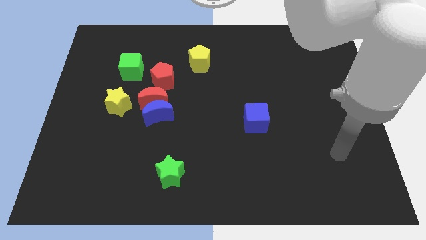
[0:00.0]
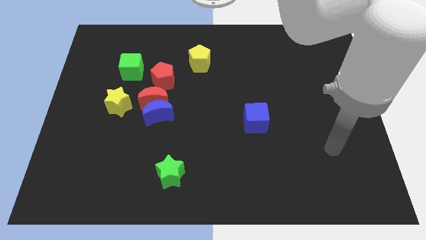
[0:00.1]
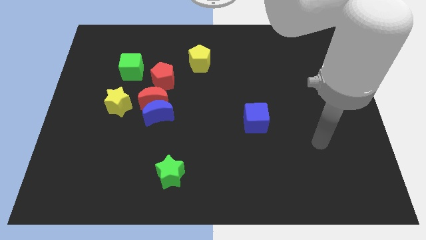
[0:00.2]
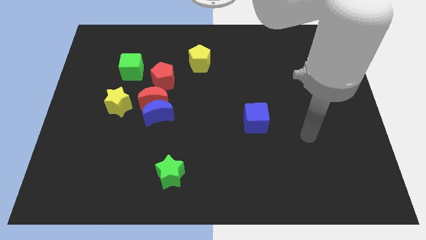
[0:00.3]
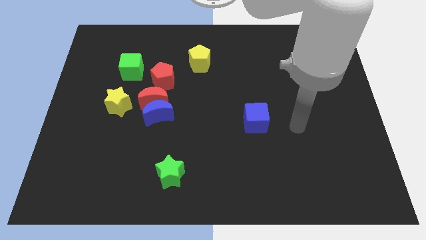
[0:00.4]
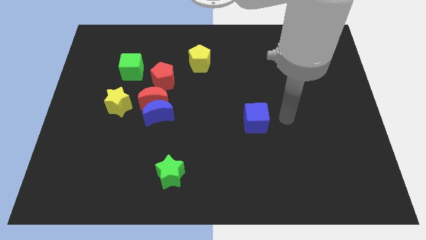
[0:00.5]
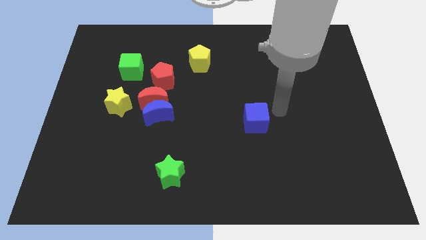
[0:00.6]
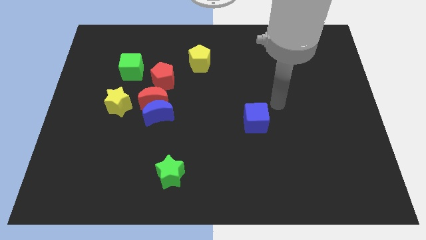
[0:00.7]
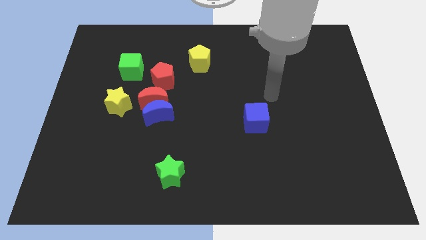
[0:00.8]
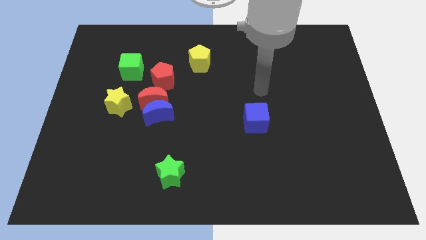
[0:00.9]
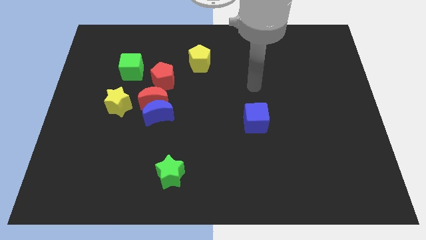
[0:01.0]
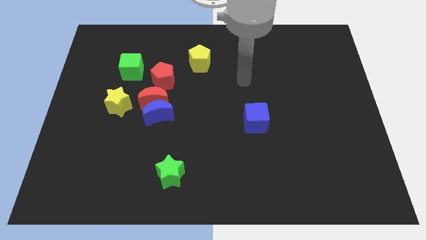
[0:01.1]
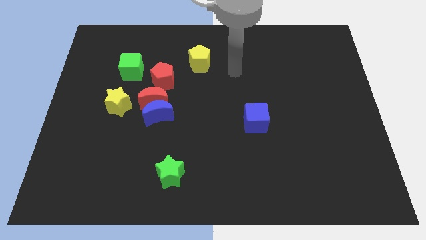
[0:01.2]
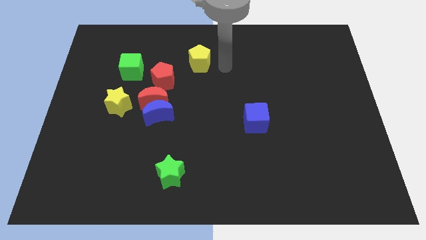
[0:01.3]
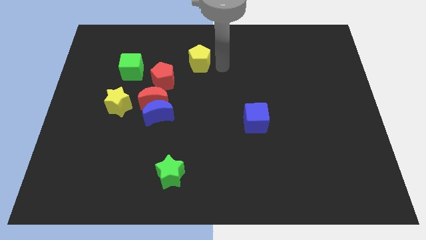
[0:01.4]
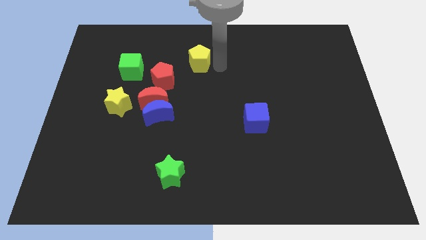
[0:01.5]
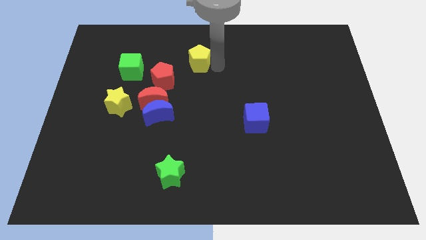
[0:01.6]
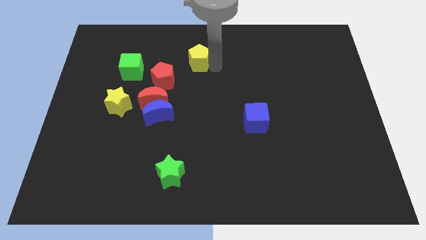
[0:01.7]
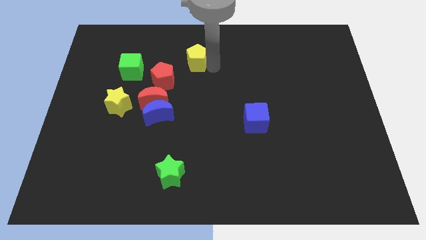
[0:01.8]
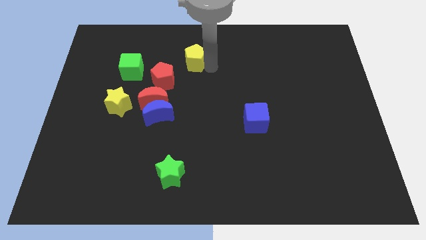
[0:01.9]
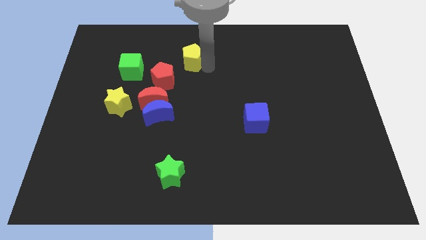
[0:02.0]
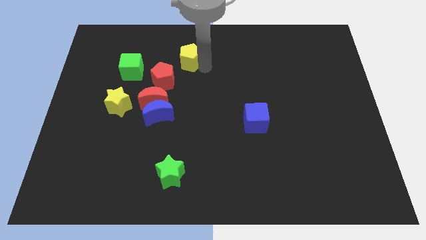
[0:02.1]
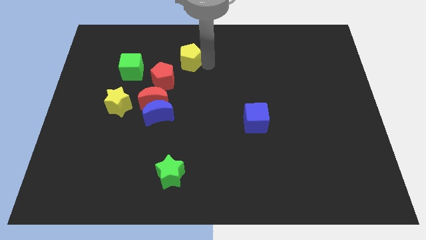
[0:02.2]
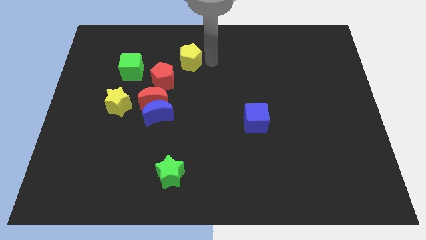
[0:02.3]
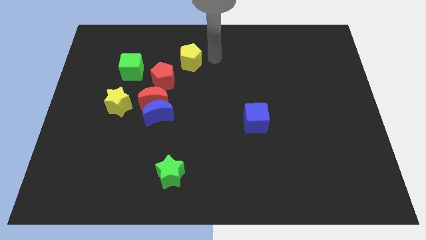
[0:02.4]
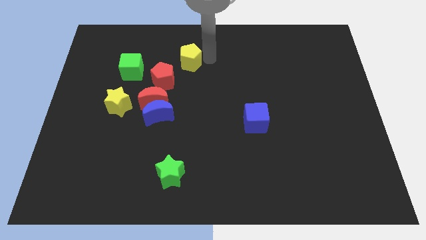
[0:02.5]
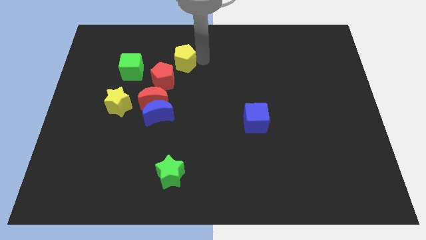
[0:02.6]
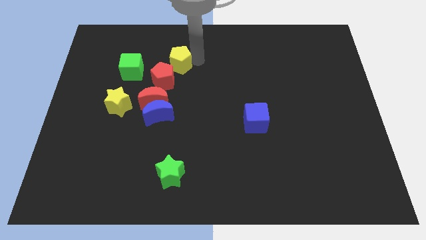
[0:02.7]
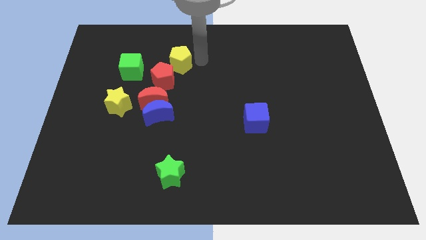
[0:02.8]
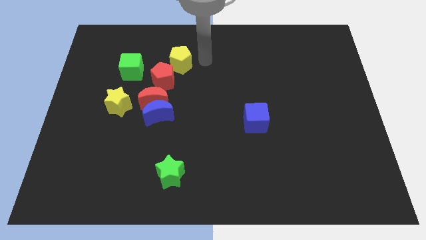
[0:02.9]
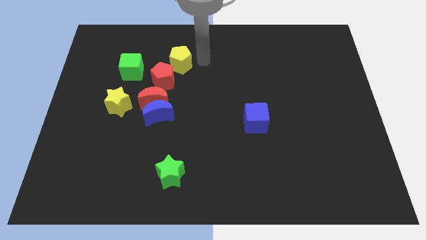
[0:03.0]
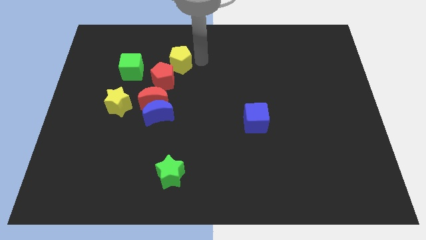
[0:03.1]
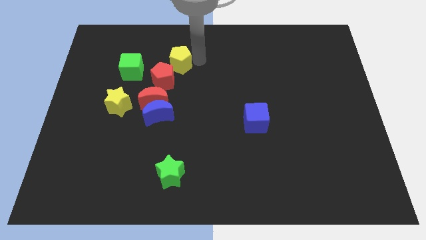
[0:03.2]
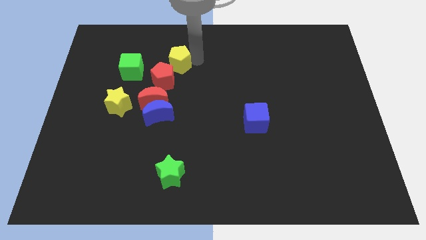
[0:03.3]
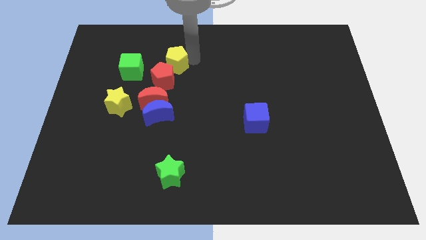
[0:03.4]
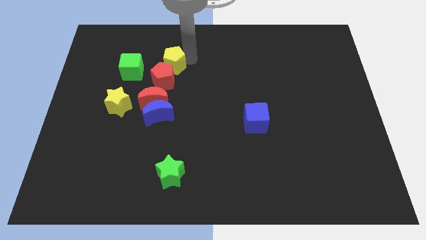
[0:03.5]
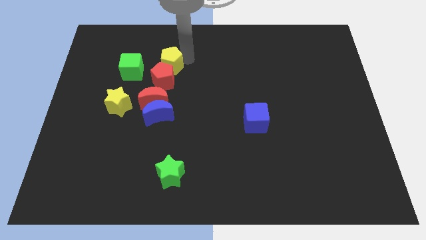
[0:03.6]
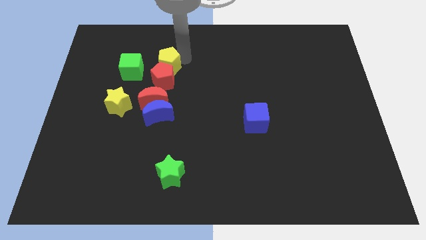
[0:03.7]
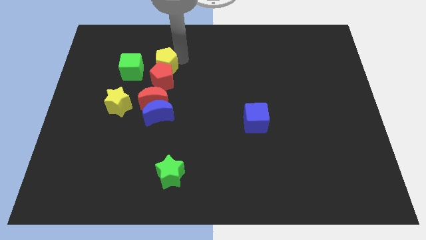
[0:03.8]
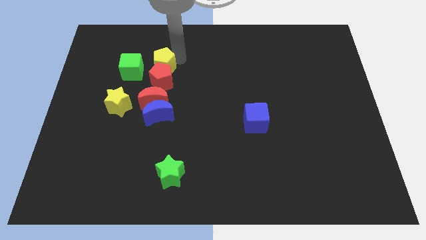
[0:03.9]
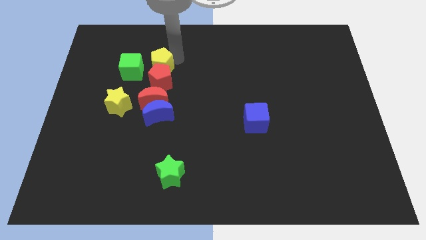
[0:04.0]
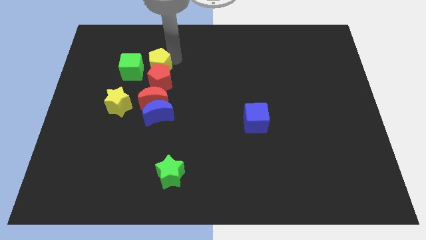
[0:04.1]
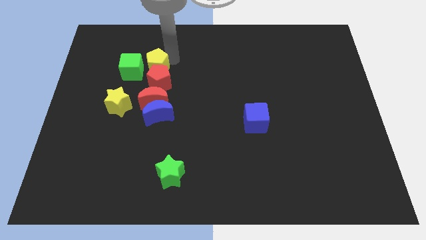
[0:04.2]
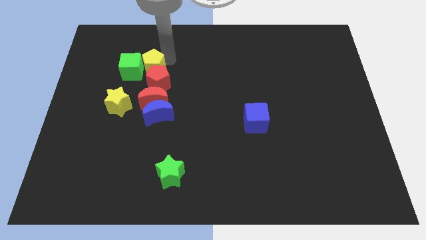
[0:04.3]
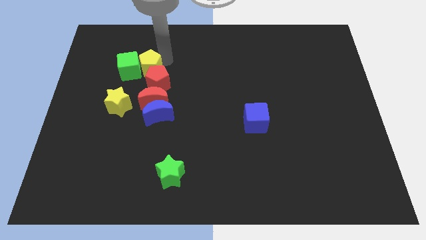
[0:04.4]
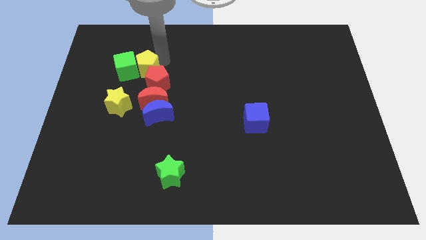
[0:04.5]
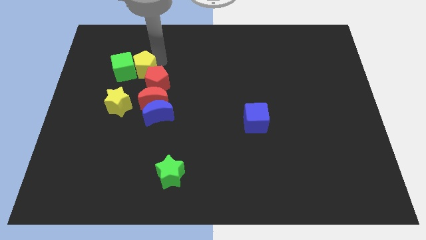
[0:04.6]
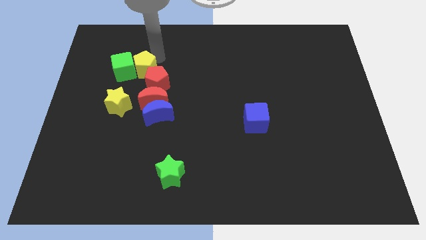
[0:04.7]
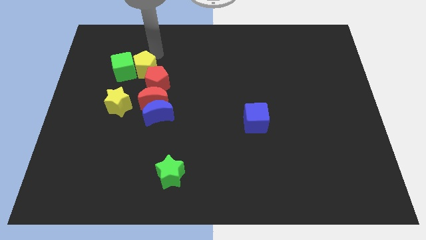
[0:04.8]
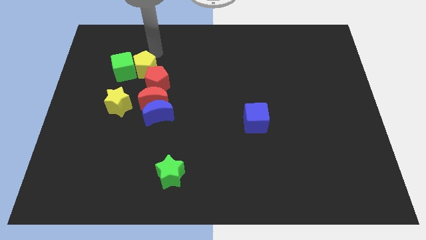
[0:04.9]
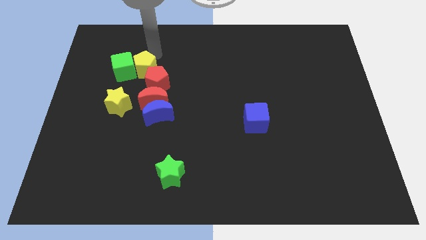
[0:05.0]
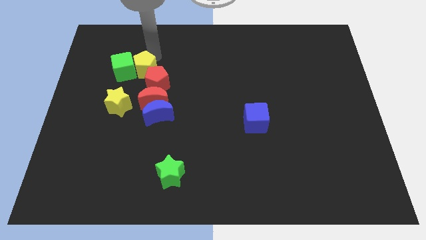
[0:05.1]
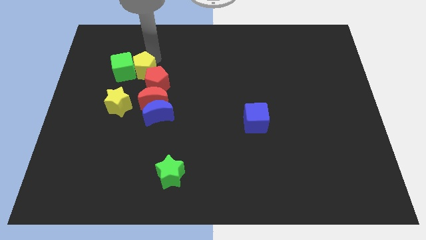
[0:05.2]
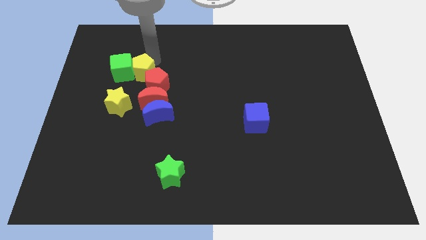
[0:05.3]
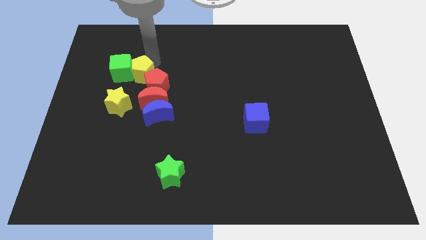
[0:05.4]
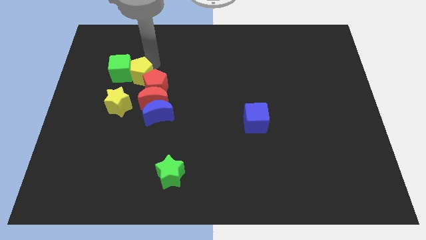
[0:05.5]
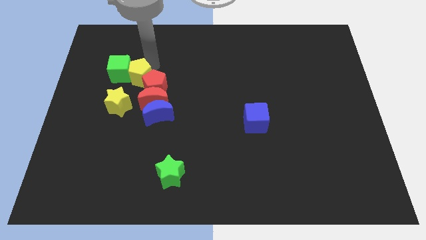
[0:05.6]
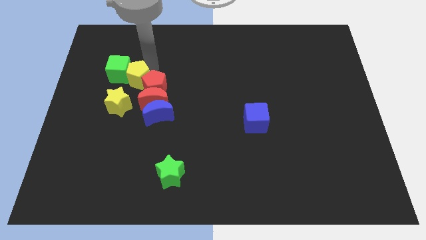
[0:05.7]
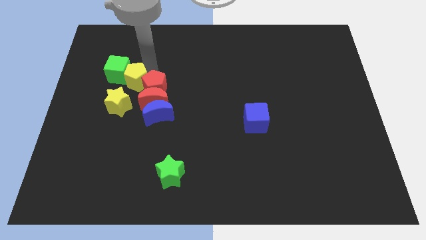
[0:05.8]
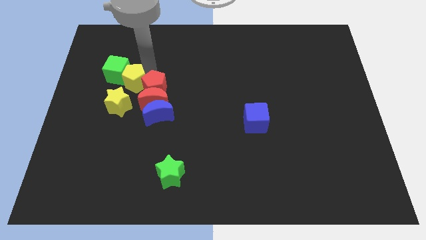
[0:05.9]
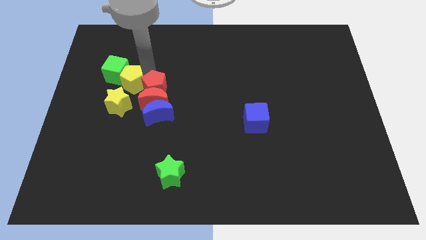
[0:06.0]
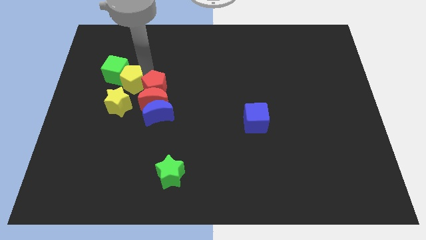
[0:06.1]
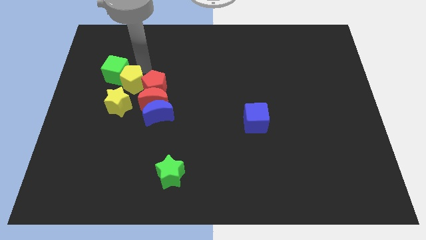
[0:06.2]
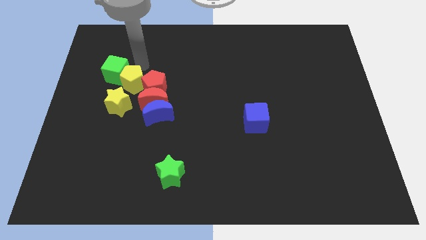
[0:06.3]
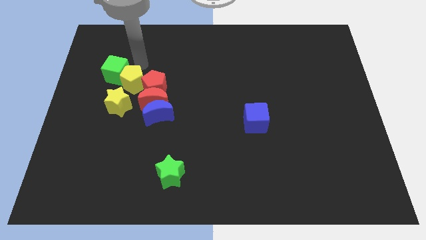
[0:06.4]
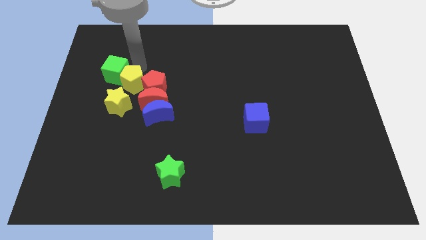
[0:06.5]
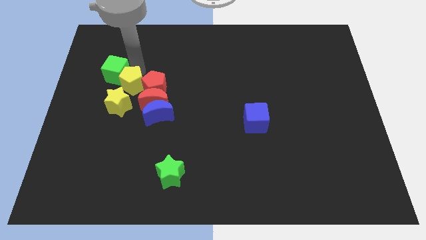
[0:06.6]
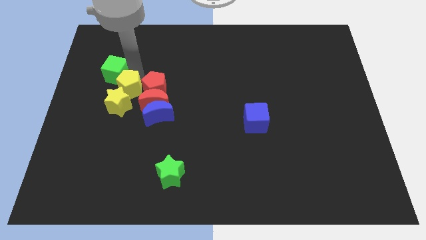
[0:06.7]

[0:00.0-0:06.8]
slide the yellow pentagon towards the yellow star

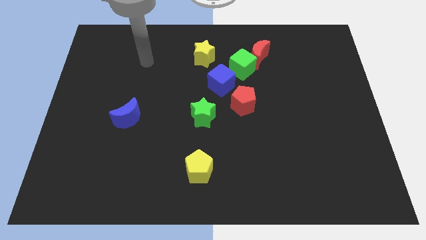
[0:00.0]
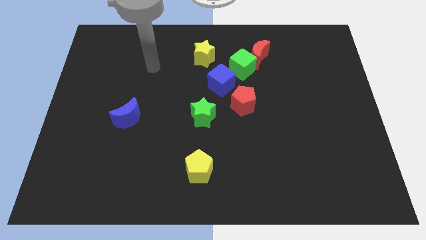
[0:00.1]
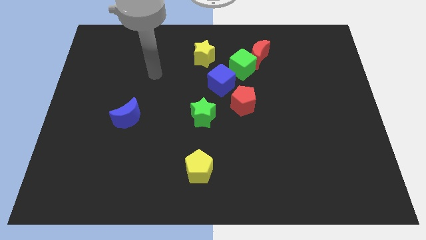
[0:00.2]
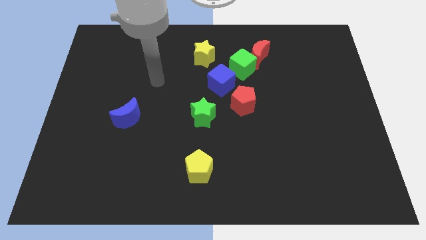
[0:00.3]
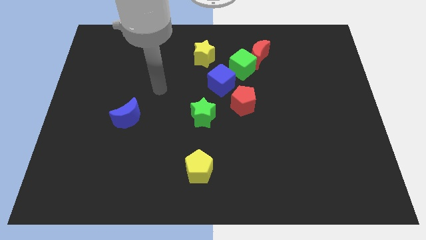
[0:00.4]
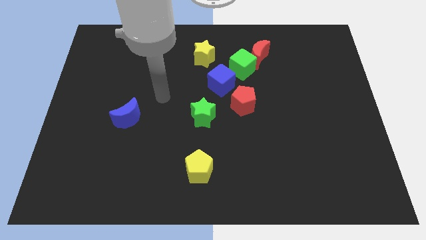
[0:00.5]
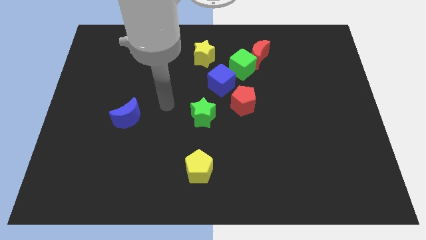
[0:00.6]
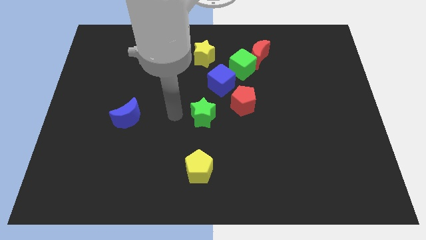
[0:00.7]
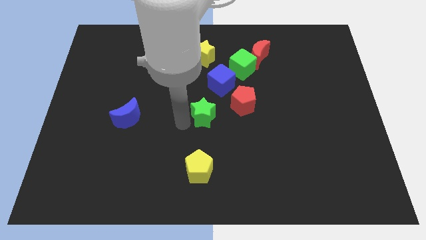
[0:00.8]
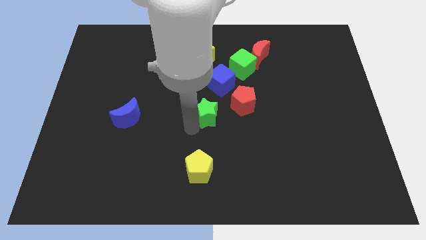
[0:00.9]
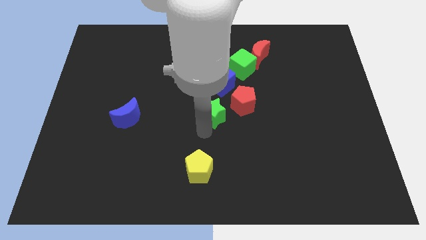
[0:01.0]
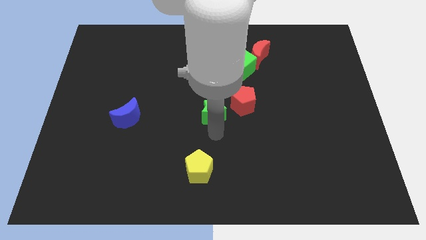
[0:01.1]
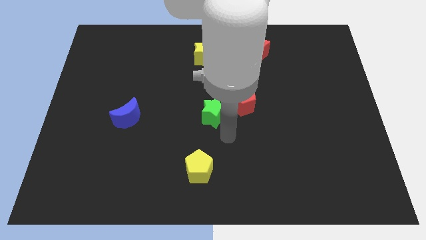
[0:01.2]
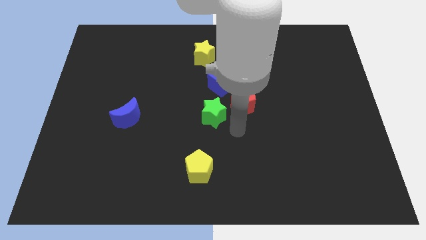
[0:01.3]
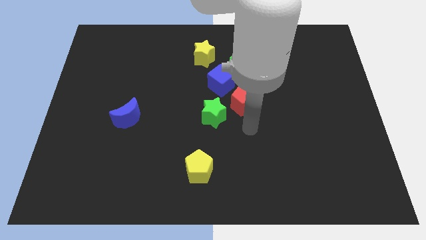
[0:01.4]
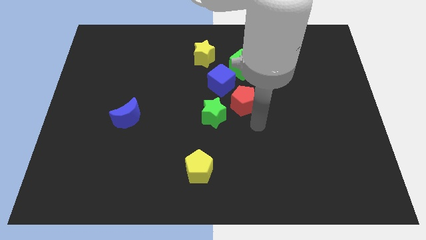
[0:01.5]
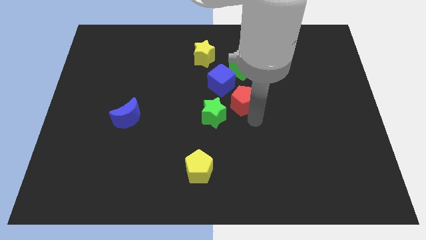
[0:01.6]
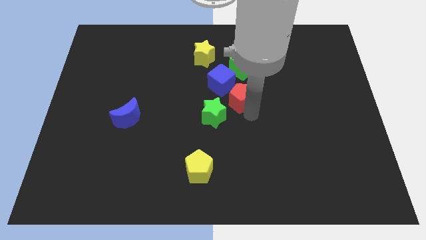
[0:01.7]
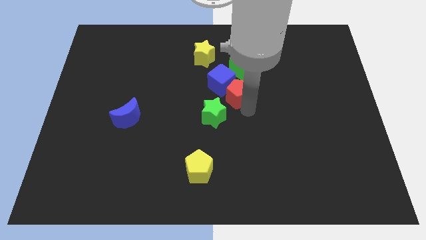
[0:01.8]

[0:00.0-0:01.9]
move the red pentagon close to the blue cube
